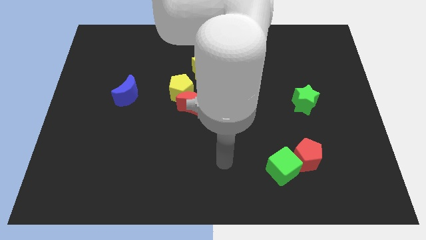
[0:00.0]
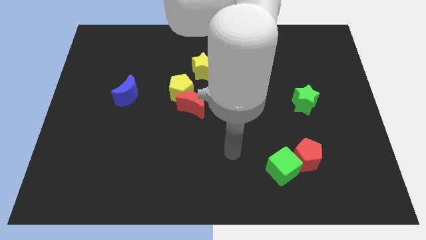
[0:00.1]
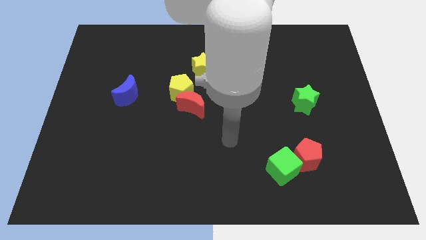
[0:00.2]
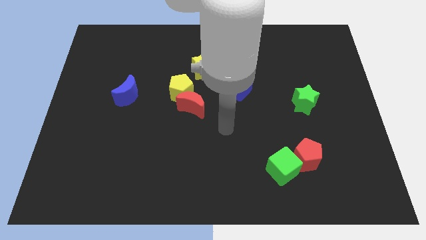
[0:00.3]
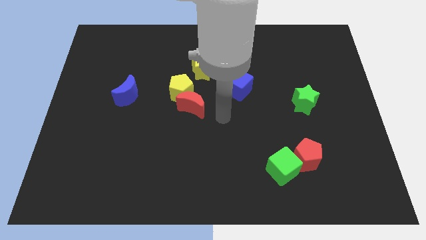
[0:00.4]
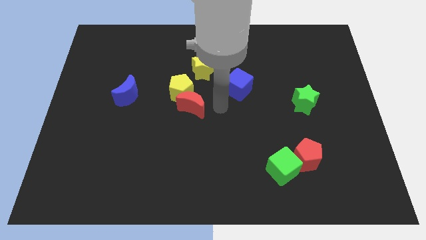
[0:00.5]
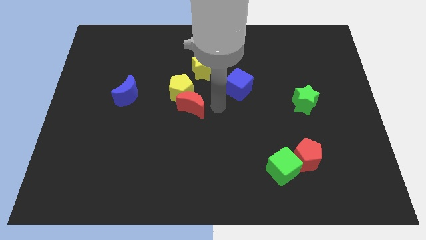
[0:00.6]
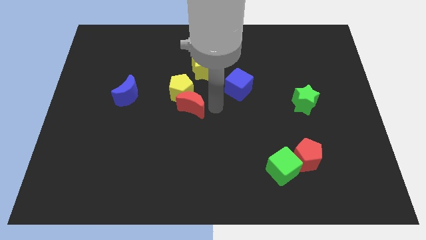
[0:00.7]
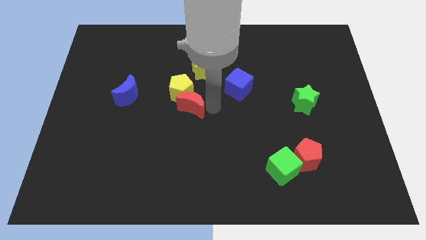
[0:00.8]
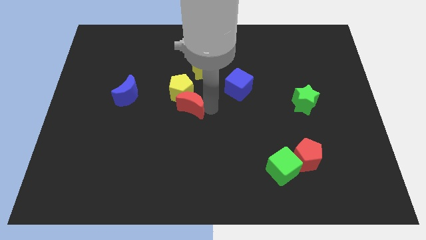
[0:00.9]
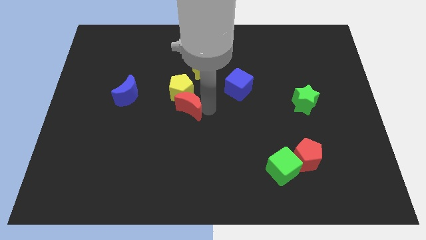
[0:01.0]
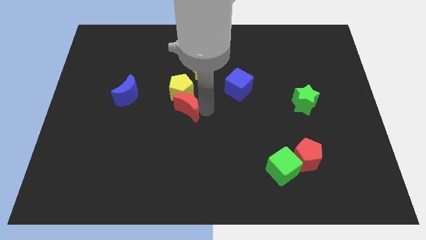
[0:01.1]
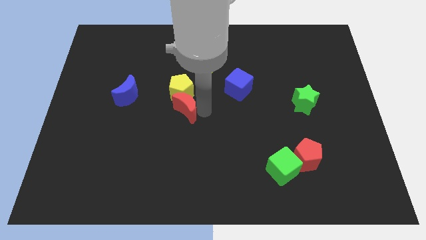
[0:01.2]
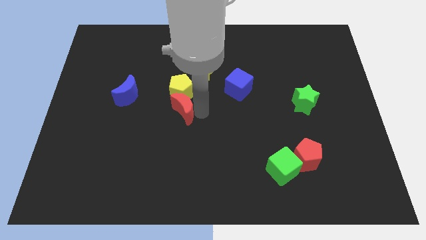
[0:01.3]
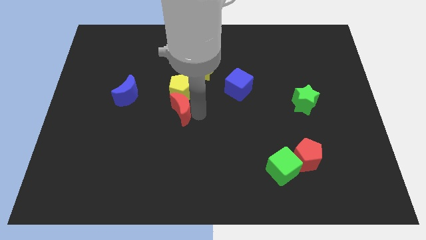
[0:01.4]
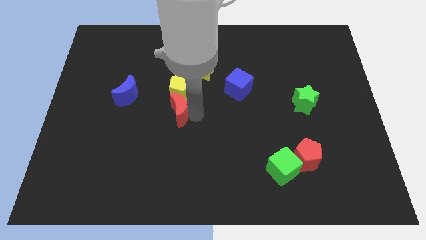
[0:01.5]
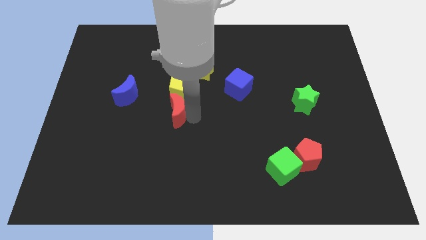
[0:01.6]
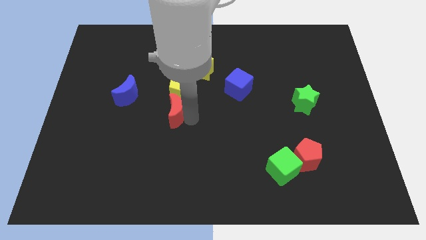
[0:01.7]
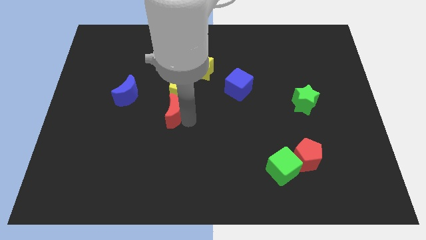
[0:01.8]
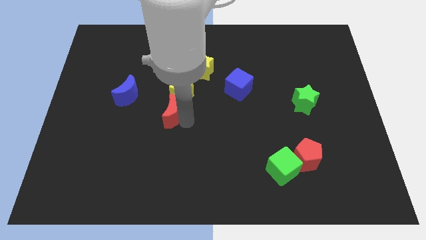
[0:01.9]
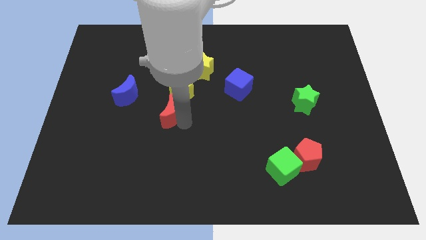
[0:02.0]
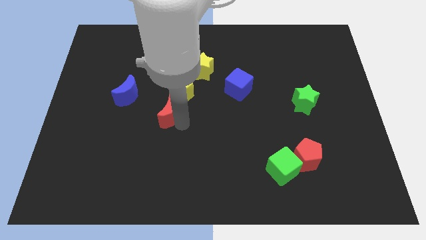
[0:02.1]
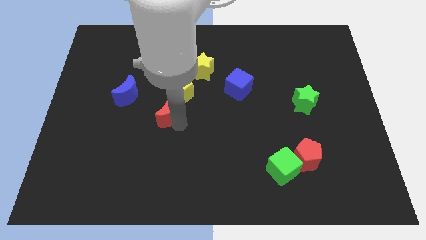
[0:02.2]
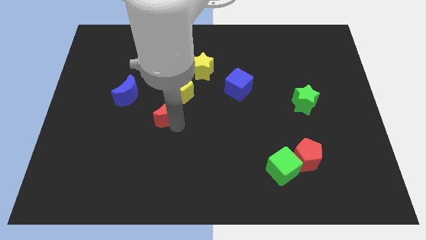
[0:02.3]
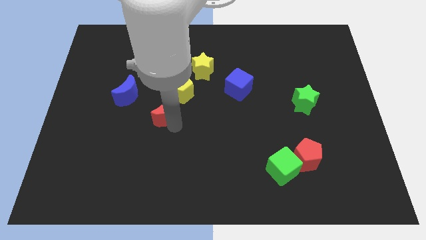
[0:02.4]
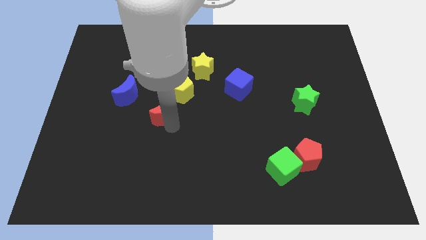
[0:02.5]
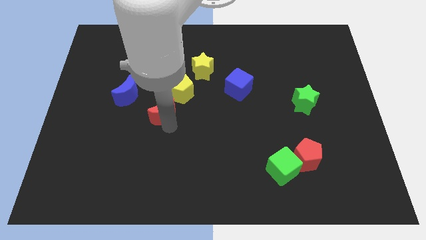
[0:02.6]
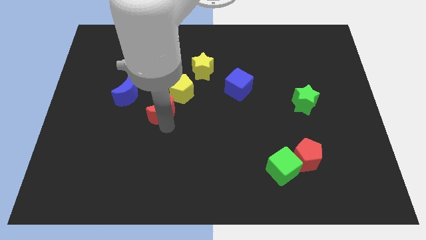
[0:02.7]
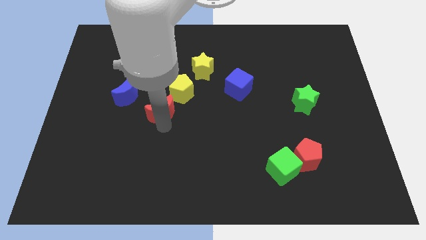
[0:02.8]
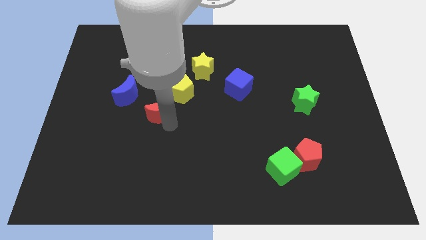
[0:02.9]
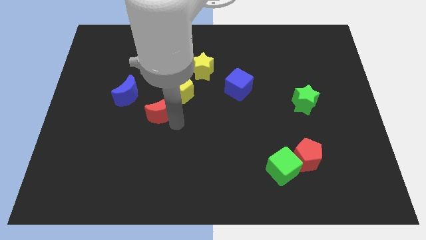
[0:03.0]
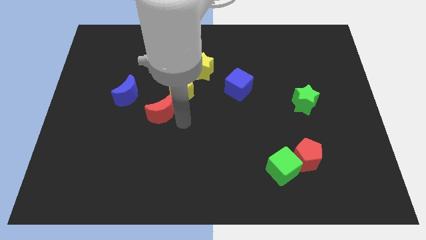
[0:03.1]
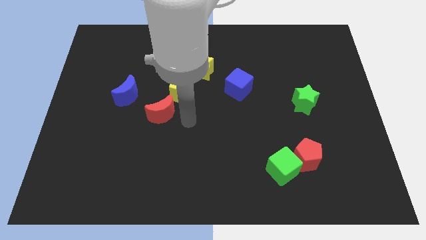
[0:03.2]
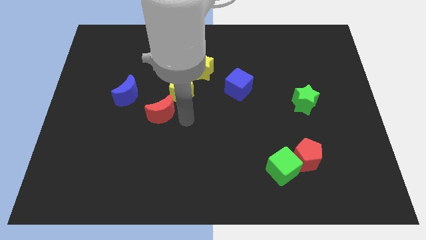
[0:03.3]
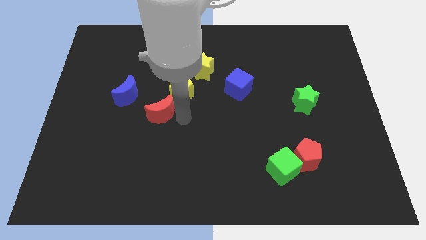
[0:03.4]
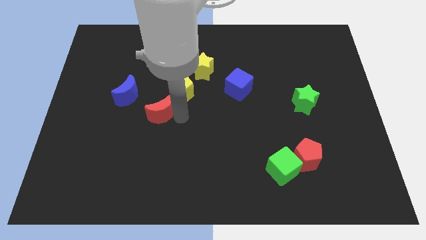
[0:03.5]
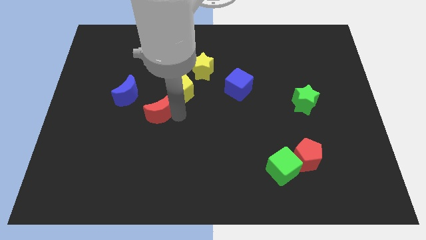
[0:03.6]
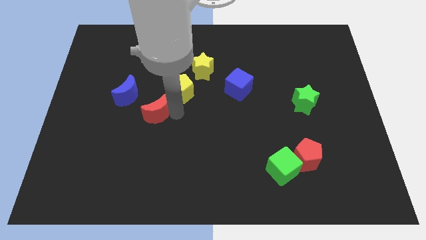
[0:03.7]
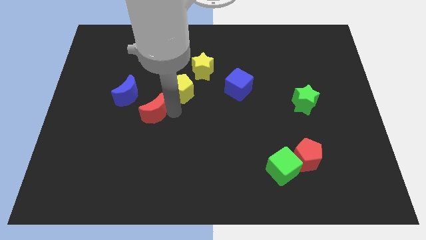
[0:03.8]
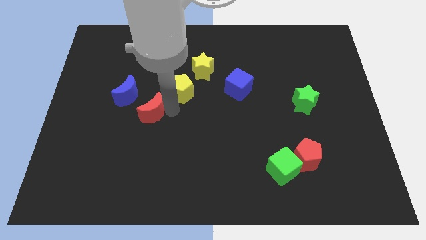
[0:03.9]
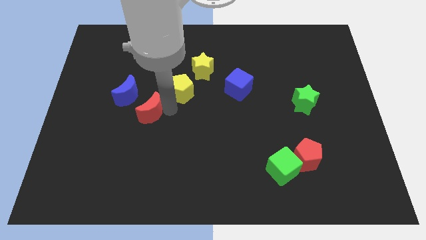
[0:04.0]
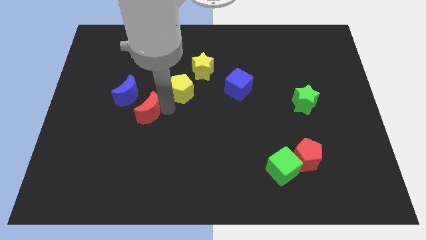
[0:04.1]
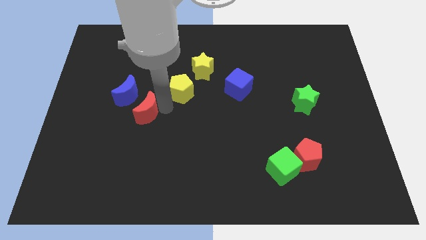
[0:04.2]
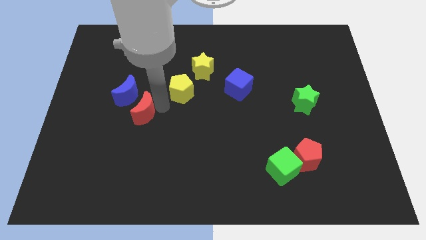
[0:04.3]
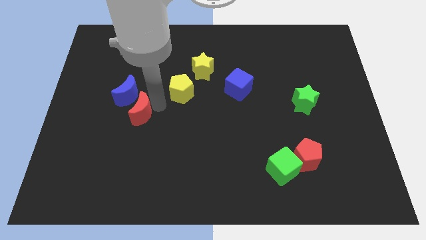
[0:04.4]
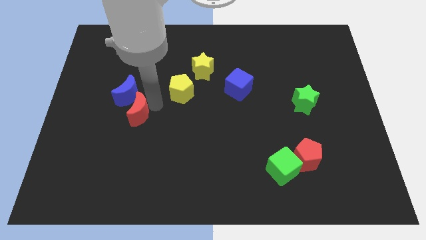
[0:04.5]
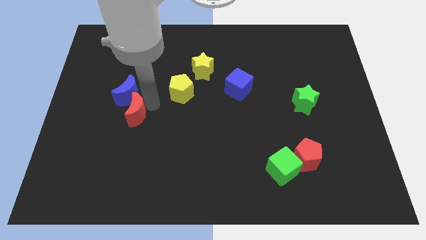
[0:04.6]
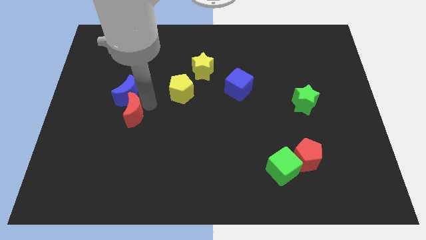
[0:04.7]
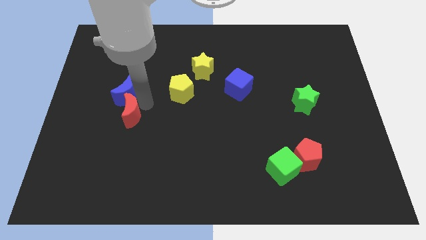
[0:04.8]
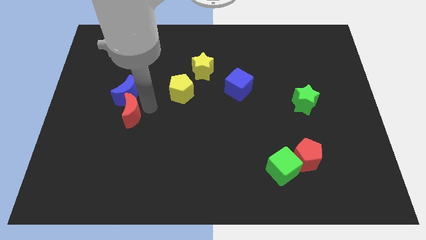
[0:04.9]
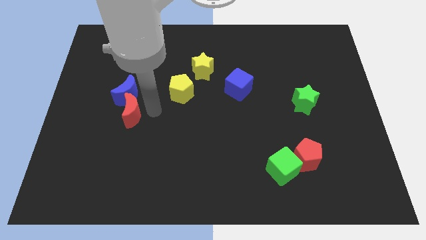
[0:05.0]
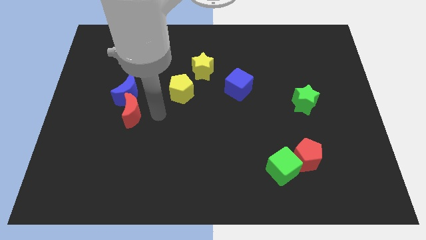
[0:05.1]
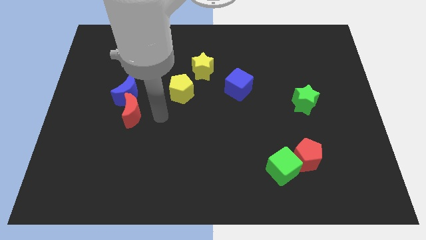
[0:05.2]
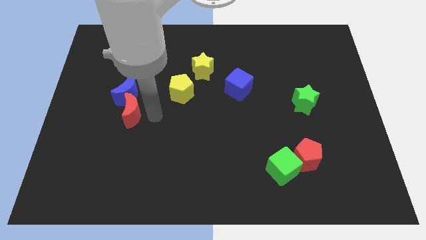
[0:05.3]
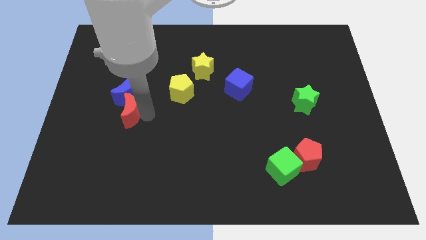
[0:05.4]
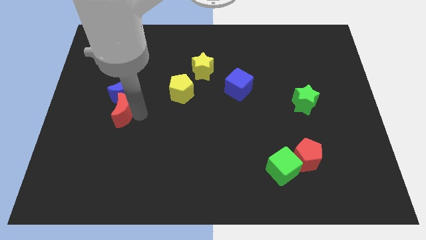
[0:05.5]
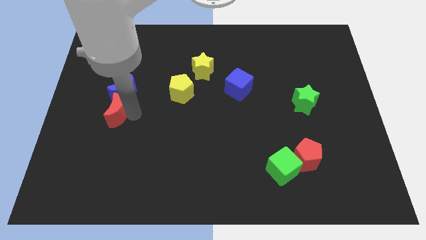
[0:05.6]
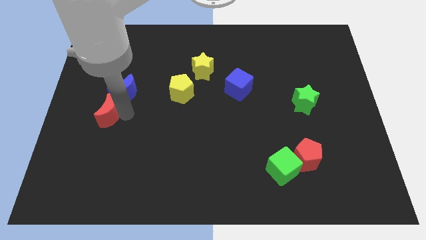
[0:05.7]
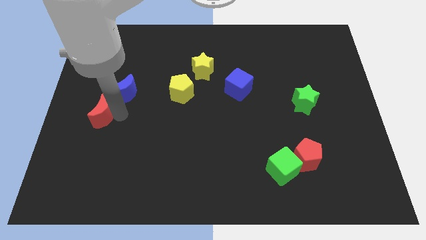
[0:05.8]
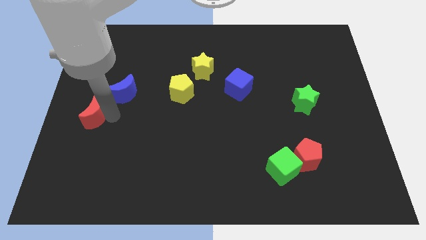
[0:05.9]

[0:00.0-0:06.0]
slide the red moon to the center left
